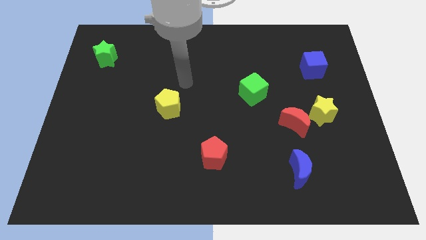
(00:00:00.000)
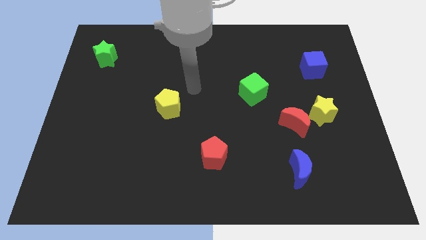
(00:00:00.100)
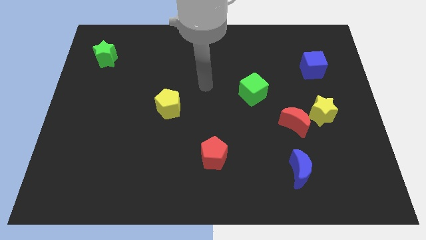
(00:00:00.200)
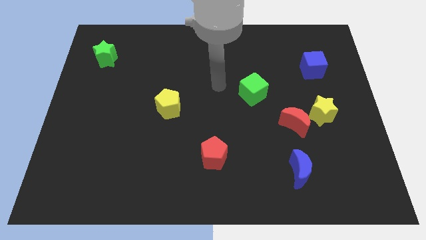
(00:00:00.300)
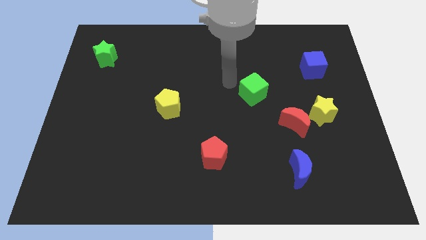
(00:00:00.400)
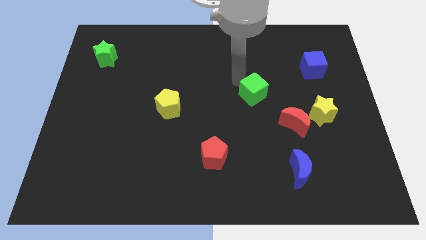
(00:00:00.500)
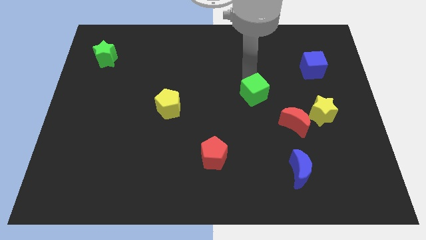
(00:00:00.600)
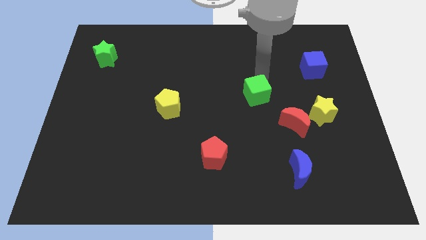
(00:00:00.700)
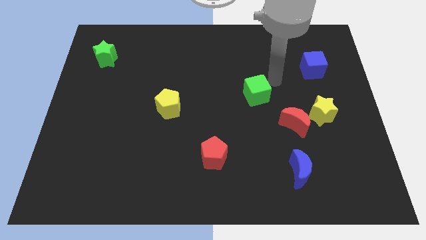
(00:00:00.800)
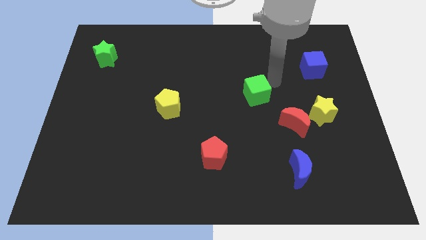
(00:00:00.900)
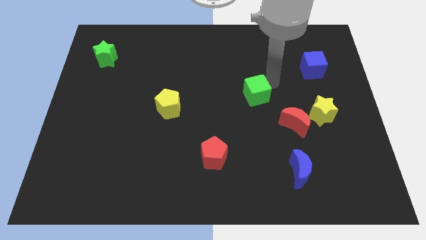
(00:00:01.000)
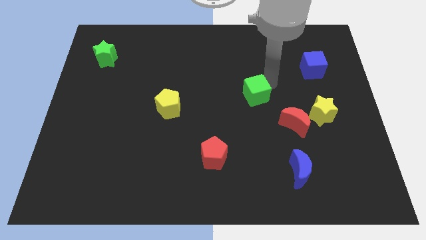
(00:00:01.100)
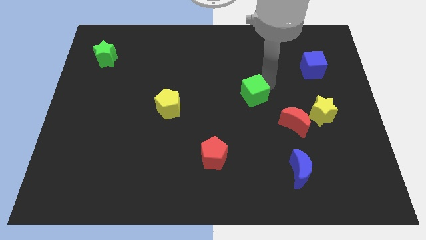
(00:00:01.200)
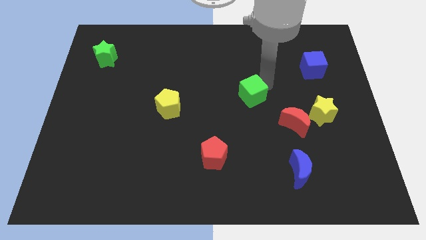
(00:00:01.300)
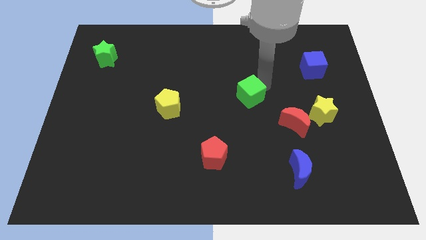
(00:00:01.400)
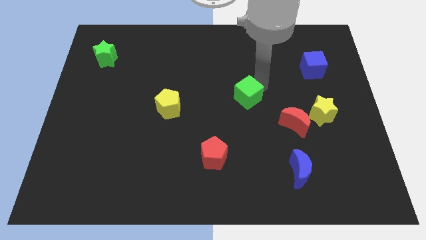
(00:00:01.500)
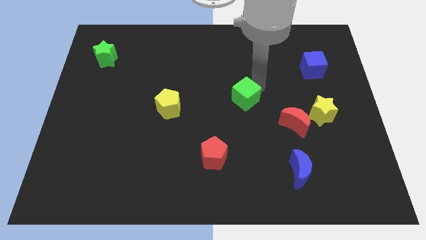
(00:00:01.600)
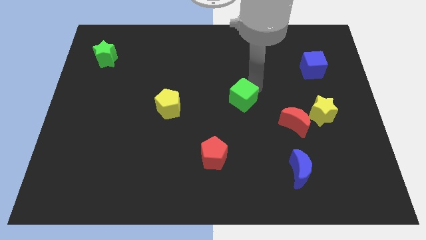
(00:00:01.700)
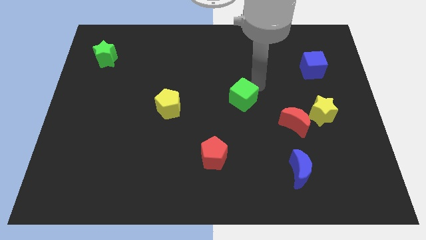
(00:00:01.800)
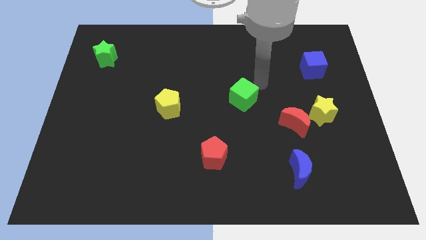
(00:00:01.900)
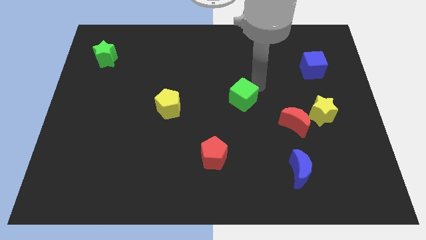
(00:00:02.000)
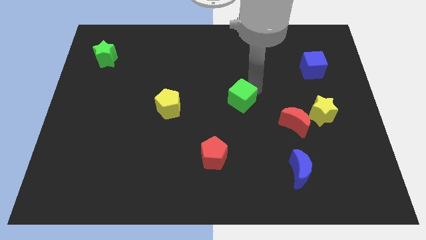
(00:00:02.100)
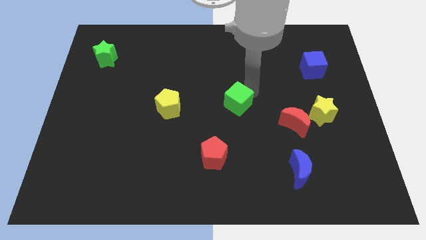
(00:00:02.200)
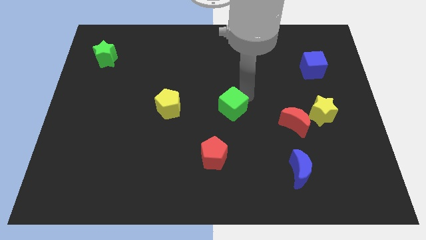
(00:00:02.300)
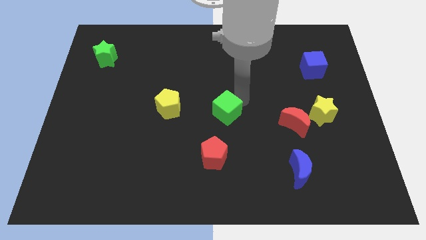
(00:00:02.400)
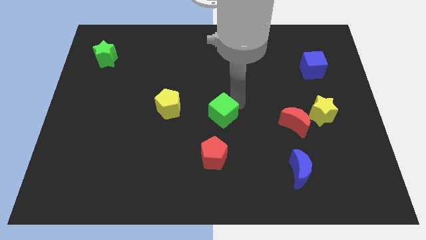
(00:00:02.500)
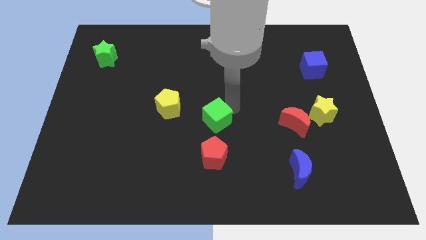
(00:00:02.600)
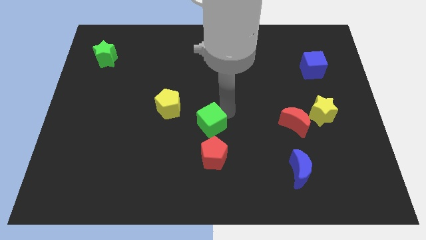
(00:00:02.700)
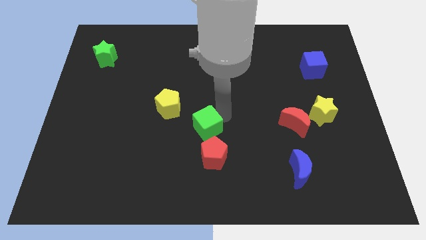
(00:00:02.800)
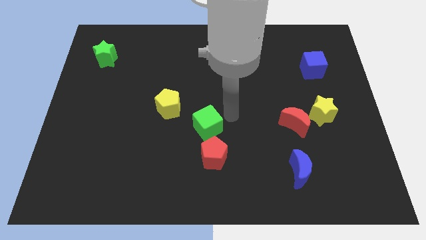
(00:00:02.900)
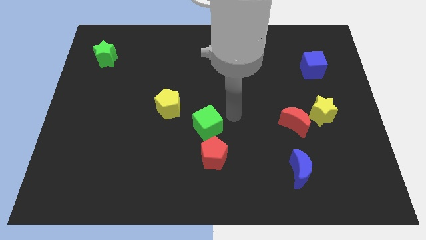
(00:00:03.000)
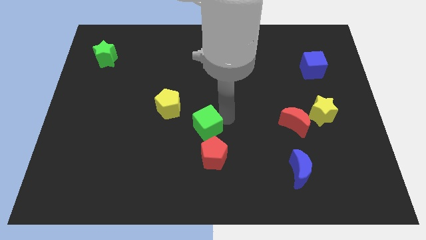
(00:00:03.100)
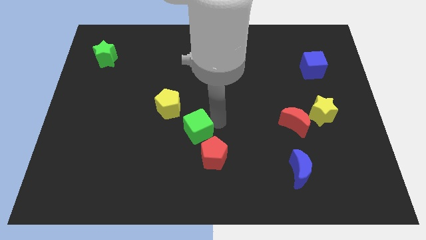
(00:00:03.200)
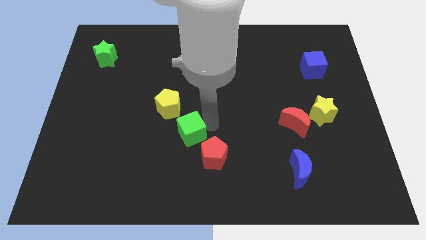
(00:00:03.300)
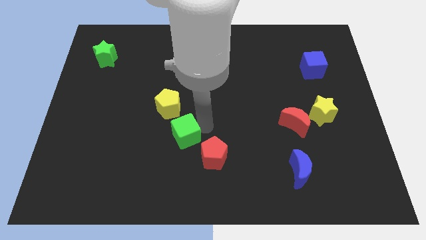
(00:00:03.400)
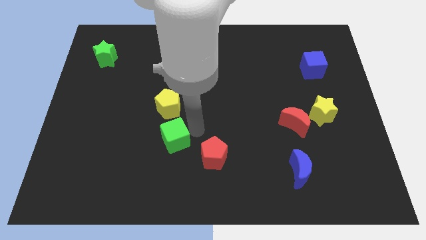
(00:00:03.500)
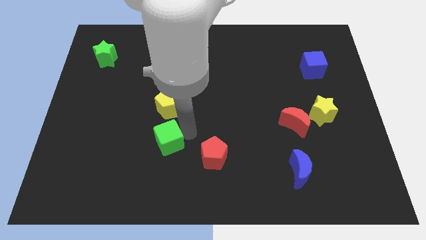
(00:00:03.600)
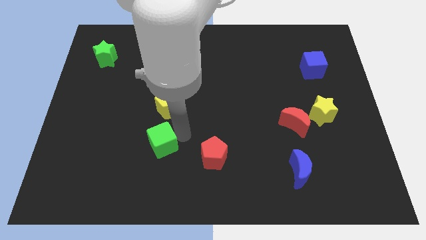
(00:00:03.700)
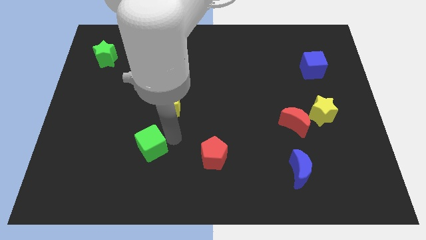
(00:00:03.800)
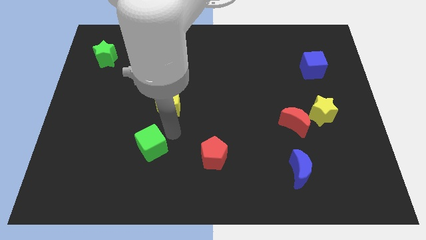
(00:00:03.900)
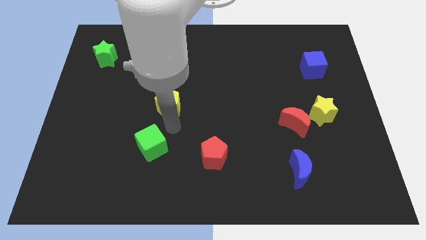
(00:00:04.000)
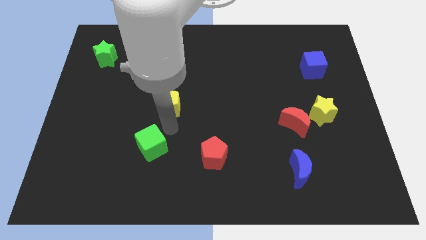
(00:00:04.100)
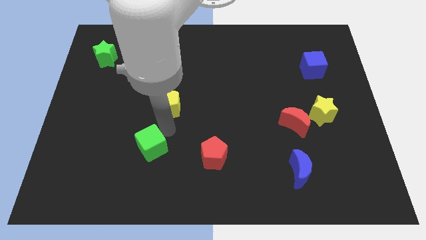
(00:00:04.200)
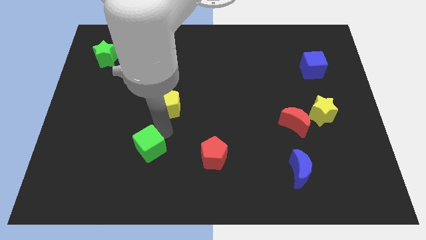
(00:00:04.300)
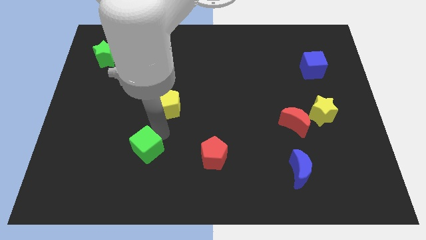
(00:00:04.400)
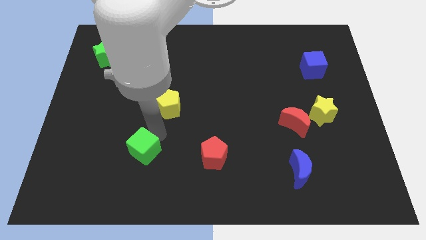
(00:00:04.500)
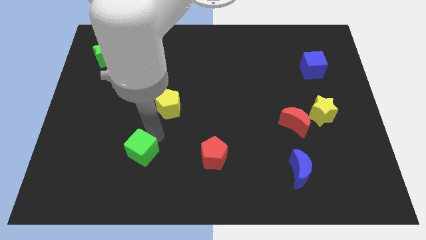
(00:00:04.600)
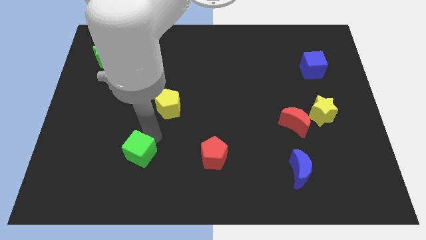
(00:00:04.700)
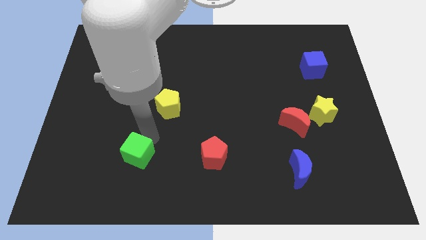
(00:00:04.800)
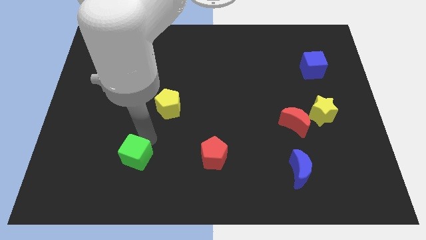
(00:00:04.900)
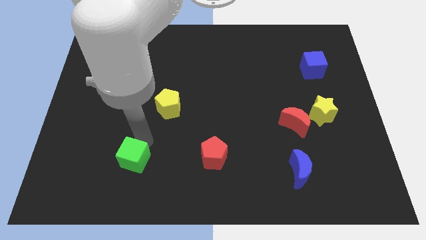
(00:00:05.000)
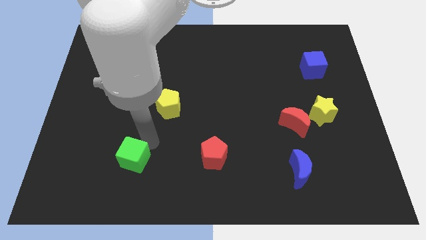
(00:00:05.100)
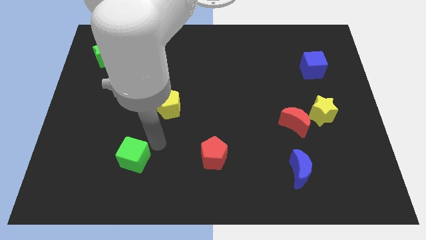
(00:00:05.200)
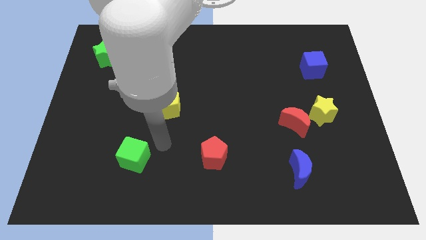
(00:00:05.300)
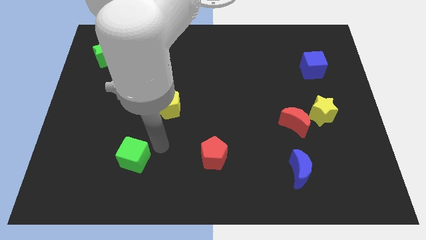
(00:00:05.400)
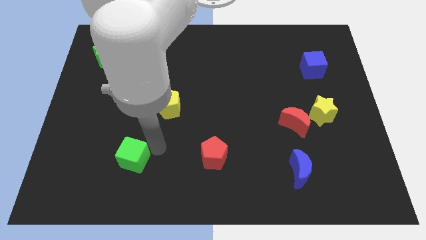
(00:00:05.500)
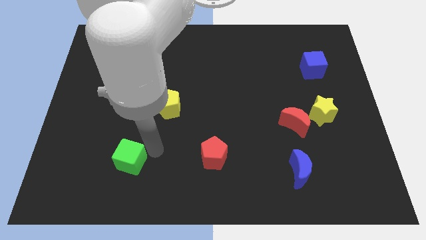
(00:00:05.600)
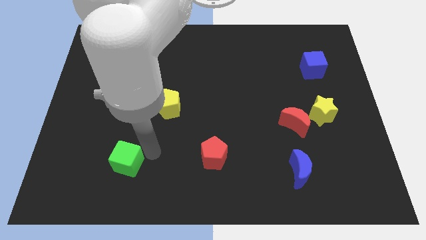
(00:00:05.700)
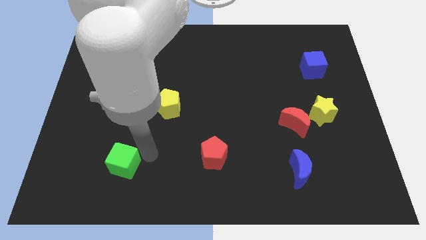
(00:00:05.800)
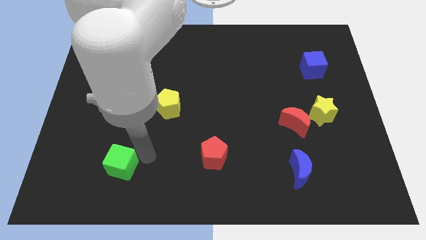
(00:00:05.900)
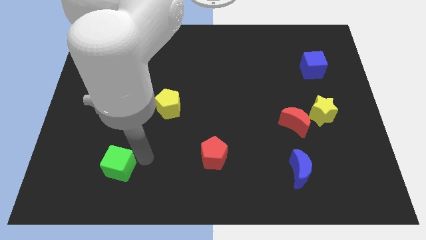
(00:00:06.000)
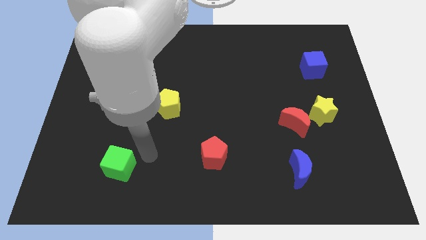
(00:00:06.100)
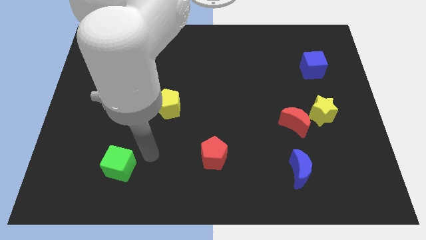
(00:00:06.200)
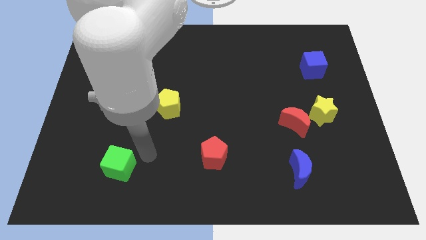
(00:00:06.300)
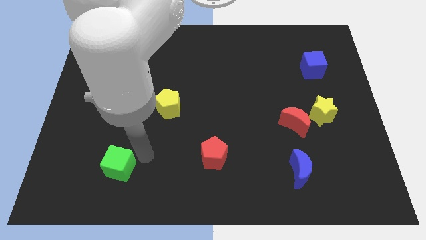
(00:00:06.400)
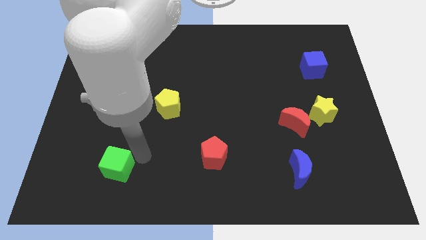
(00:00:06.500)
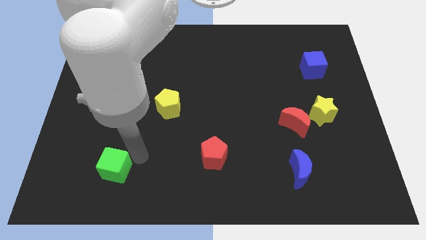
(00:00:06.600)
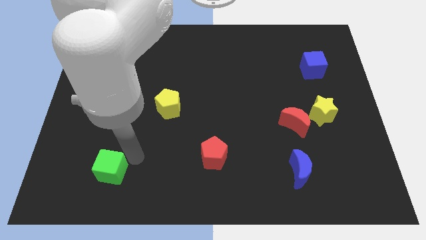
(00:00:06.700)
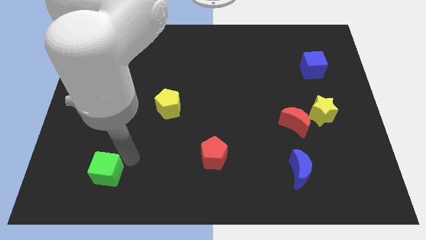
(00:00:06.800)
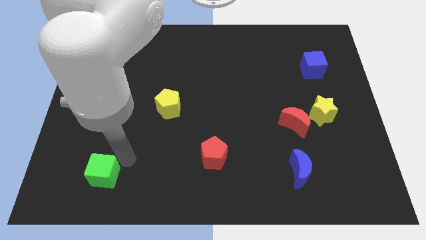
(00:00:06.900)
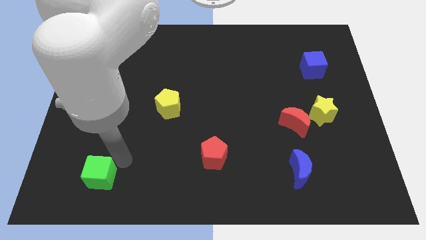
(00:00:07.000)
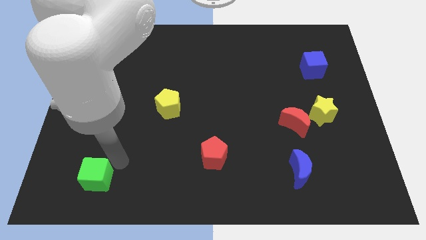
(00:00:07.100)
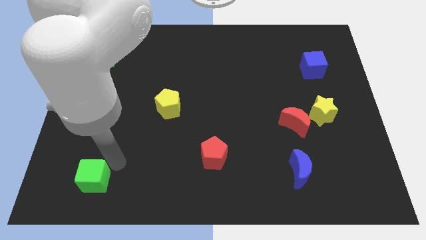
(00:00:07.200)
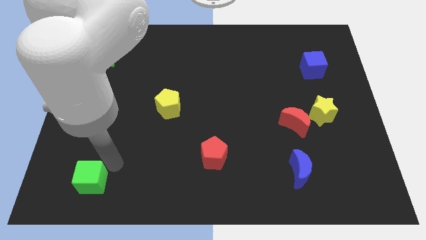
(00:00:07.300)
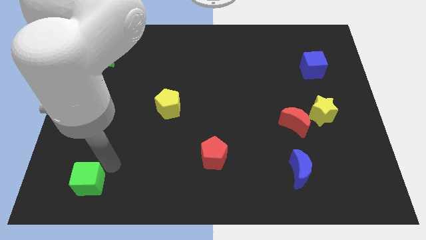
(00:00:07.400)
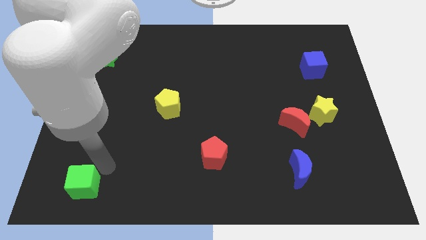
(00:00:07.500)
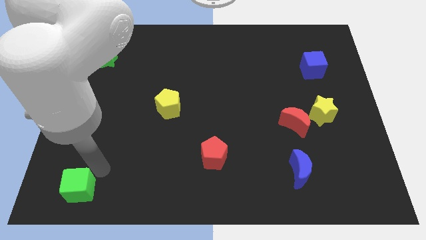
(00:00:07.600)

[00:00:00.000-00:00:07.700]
push the green cube to the bottom left

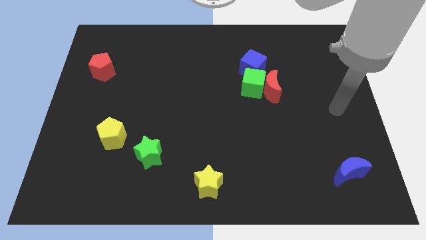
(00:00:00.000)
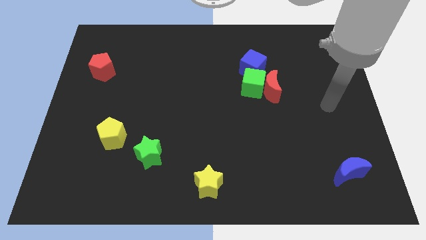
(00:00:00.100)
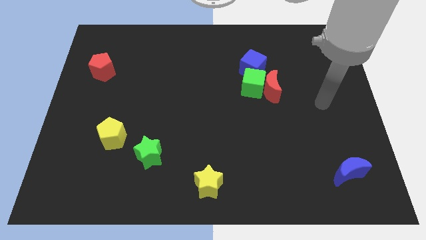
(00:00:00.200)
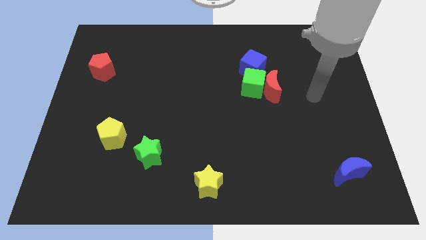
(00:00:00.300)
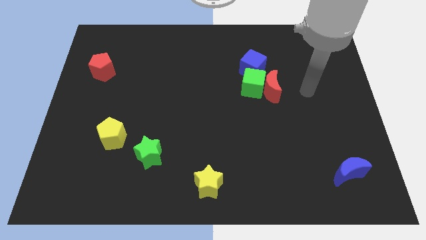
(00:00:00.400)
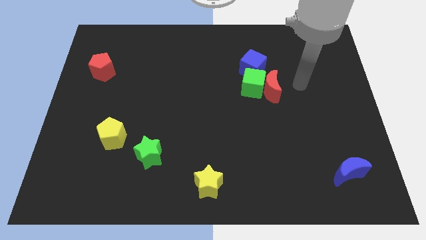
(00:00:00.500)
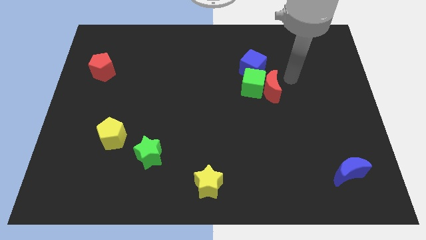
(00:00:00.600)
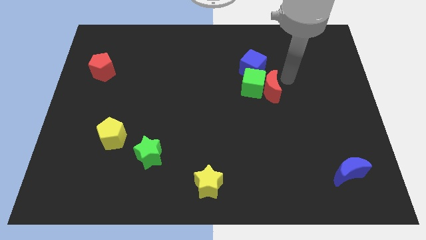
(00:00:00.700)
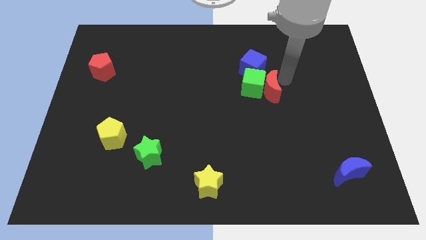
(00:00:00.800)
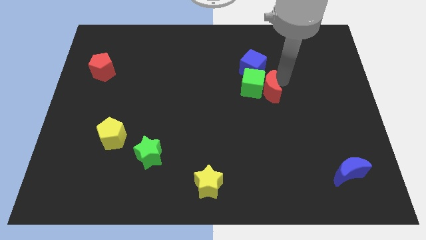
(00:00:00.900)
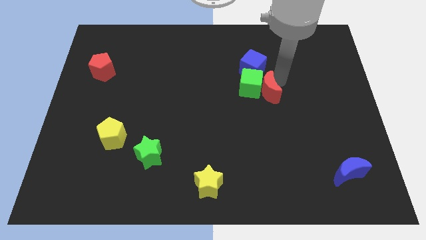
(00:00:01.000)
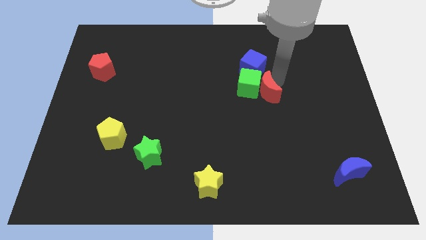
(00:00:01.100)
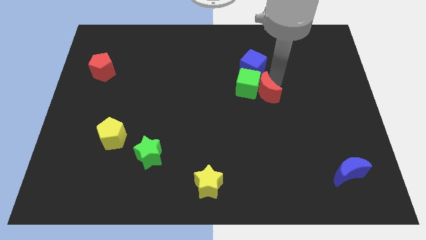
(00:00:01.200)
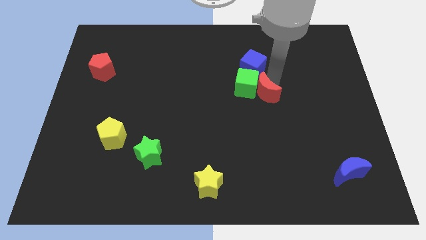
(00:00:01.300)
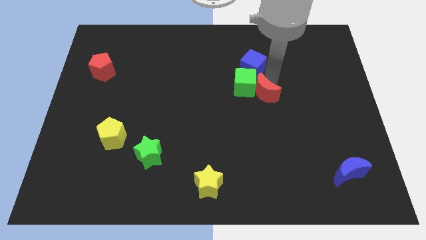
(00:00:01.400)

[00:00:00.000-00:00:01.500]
move the red moon to the center
